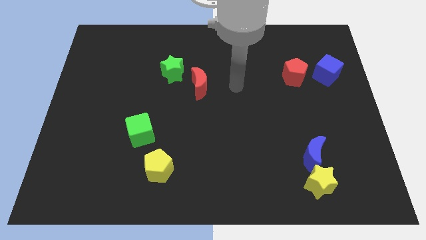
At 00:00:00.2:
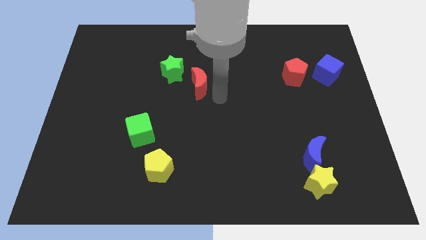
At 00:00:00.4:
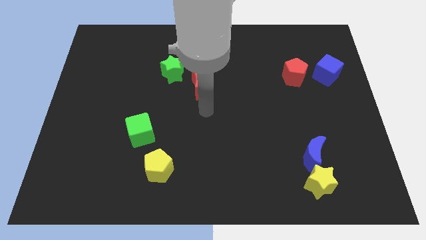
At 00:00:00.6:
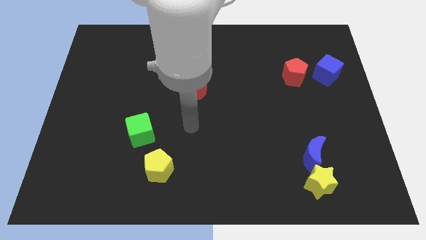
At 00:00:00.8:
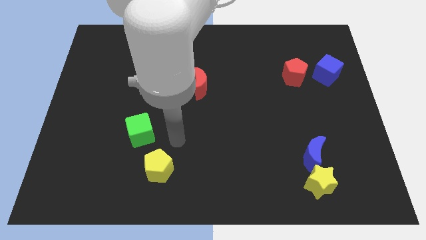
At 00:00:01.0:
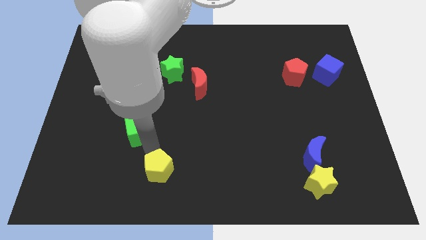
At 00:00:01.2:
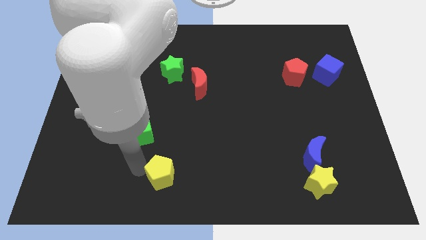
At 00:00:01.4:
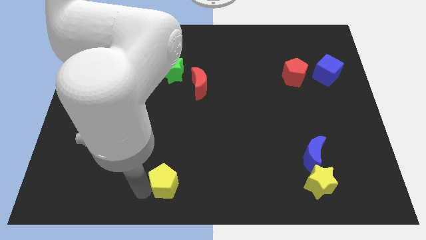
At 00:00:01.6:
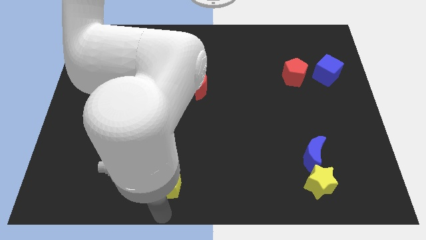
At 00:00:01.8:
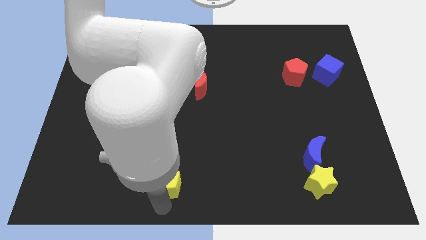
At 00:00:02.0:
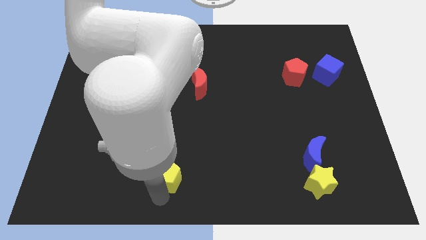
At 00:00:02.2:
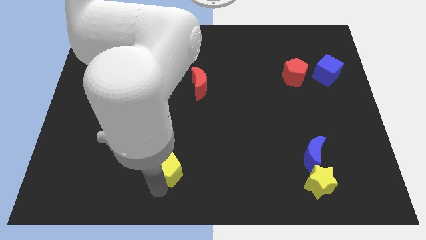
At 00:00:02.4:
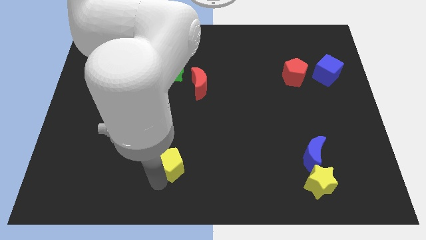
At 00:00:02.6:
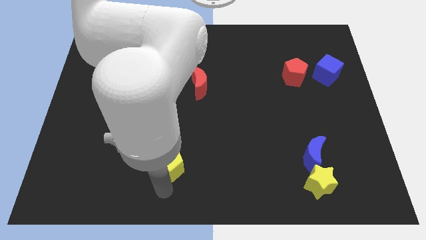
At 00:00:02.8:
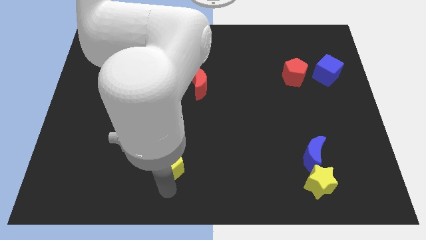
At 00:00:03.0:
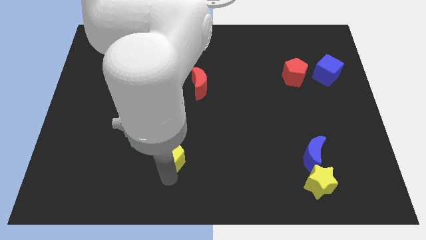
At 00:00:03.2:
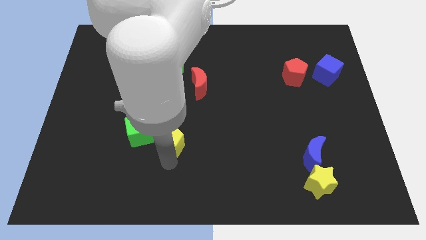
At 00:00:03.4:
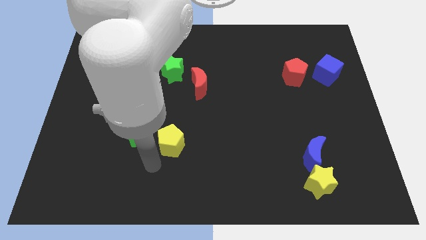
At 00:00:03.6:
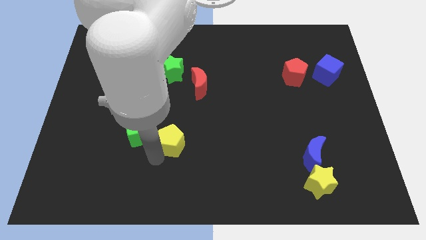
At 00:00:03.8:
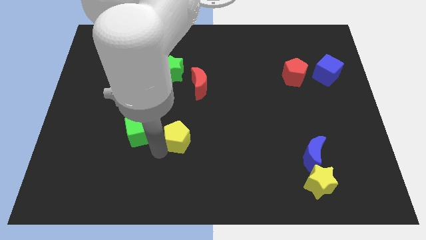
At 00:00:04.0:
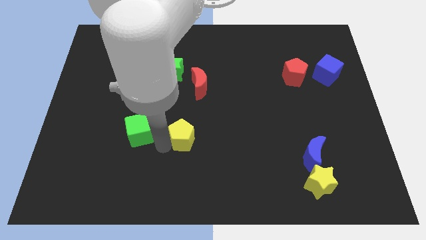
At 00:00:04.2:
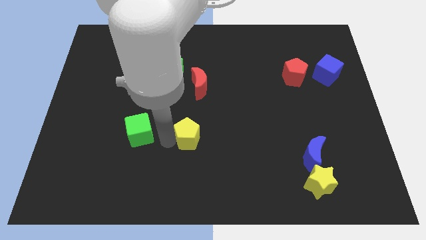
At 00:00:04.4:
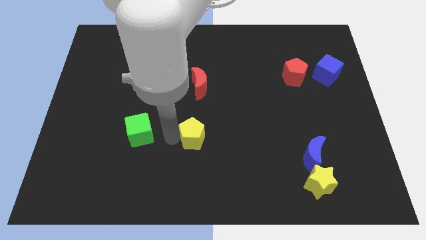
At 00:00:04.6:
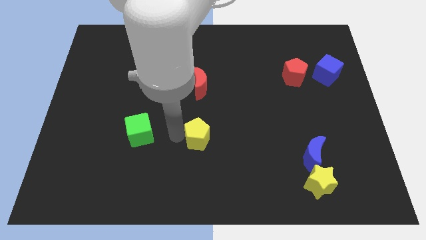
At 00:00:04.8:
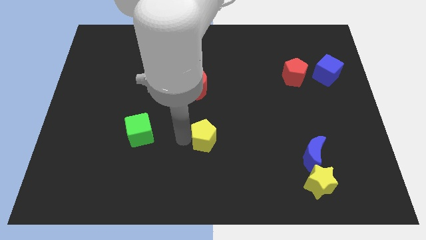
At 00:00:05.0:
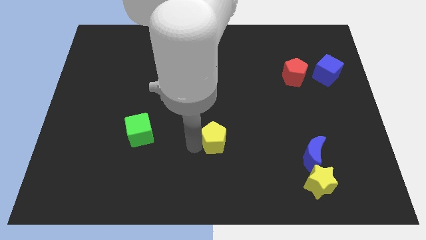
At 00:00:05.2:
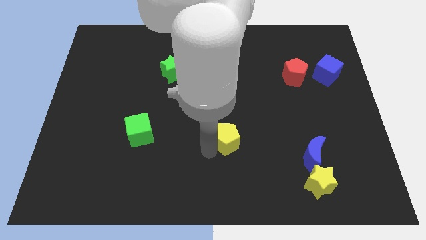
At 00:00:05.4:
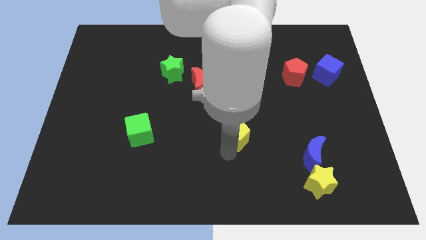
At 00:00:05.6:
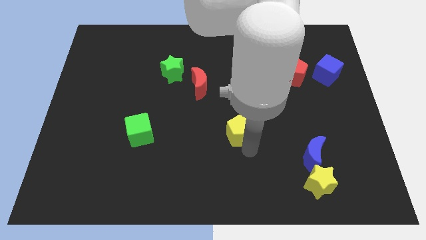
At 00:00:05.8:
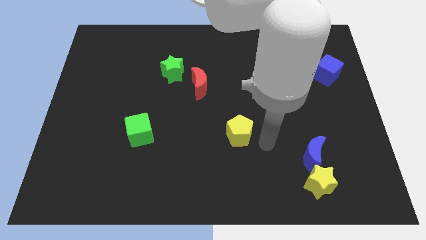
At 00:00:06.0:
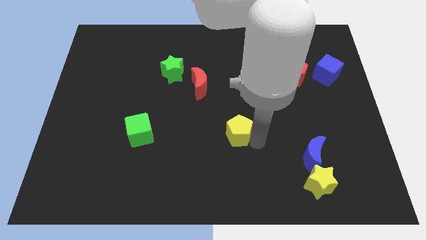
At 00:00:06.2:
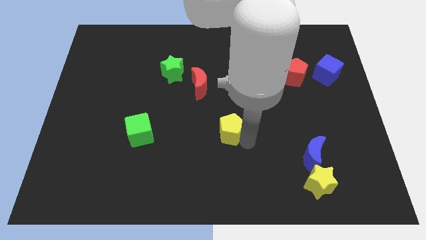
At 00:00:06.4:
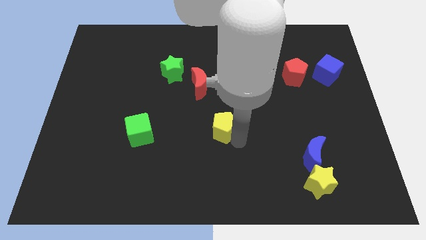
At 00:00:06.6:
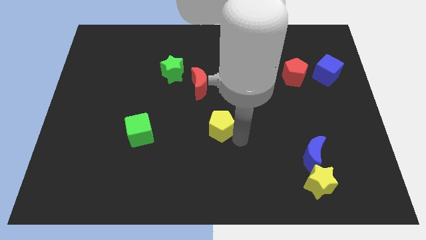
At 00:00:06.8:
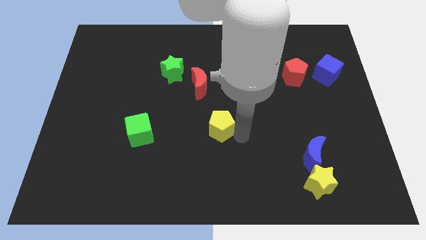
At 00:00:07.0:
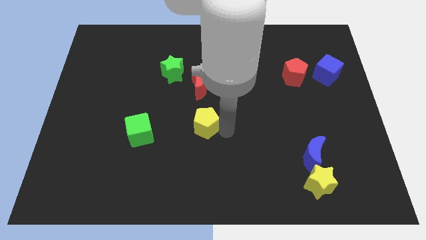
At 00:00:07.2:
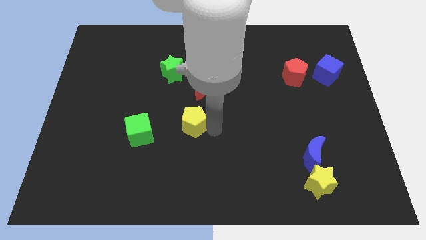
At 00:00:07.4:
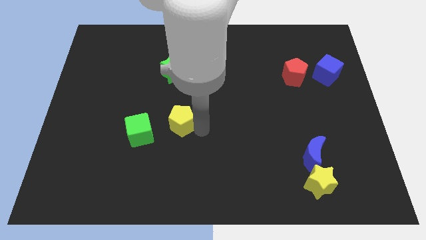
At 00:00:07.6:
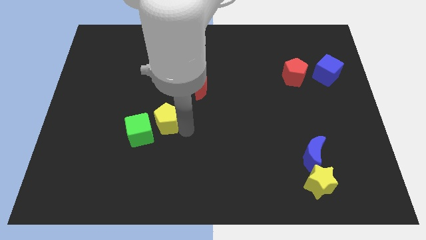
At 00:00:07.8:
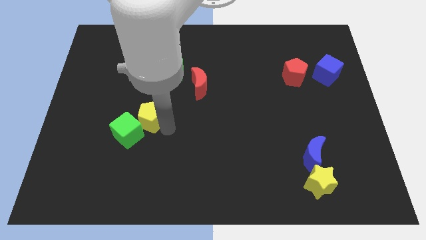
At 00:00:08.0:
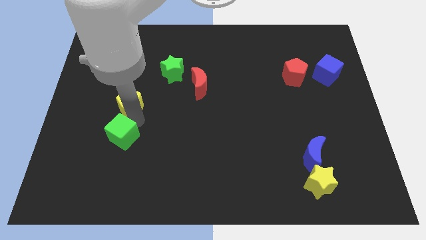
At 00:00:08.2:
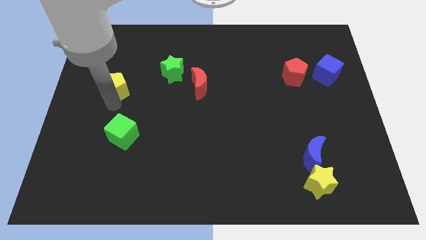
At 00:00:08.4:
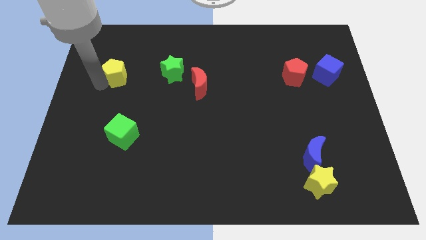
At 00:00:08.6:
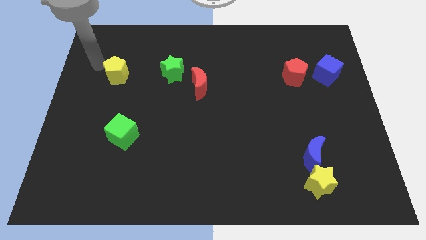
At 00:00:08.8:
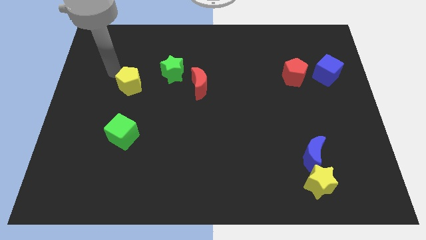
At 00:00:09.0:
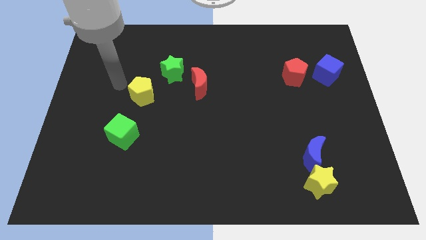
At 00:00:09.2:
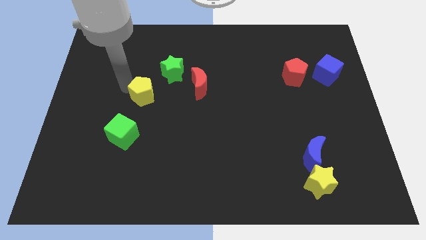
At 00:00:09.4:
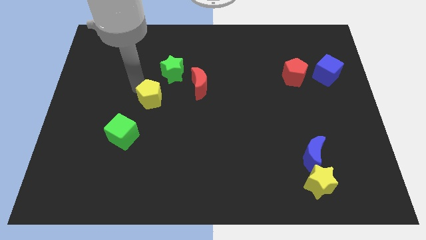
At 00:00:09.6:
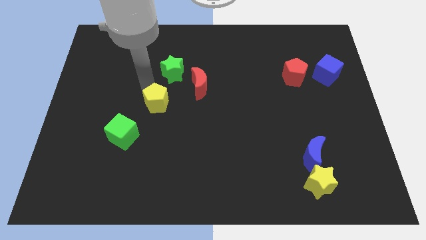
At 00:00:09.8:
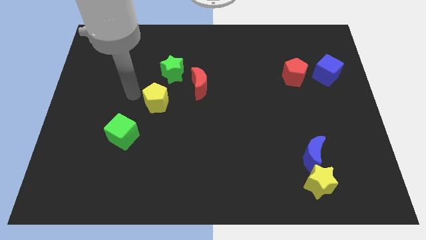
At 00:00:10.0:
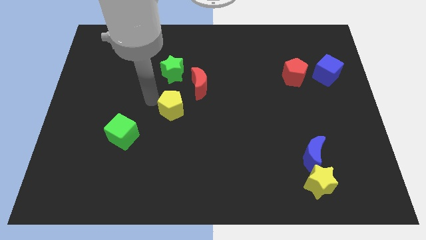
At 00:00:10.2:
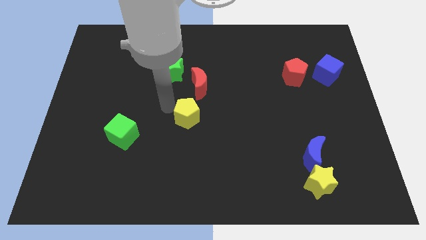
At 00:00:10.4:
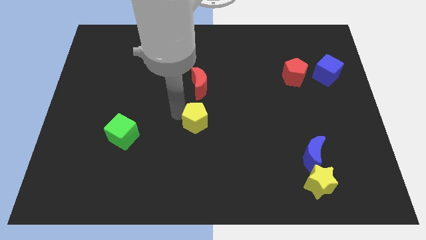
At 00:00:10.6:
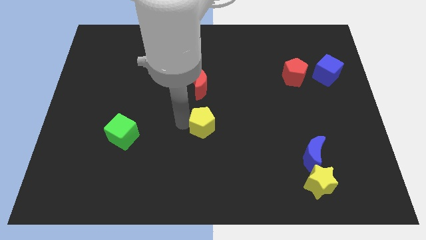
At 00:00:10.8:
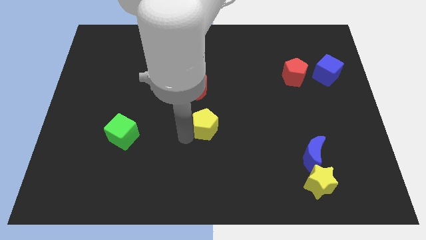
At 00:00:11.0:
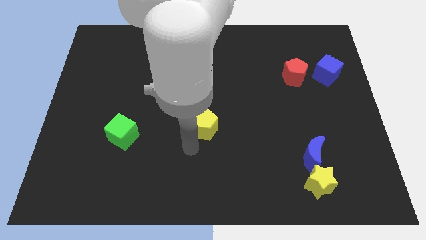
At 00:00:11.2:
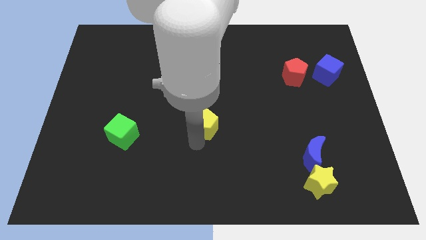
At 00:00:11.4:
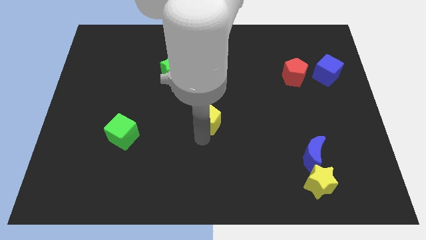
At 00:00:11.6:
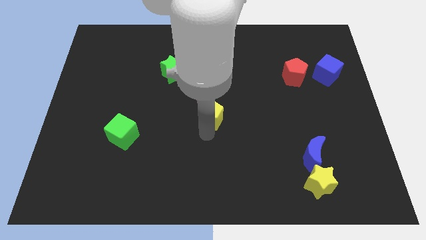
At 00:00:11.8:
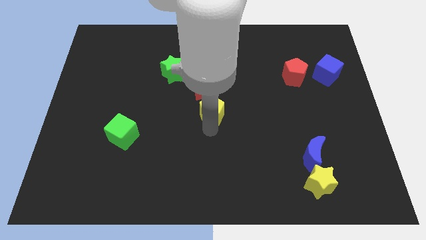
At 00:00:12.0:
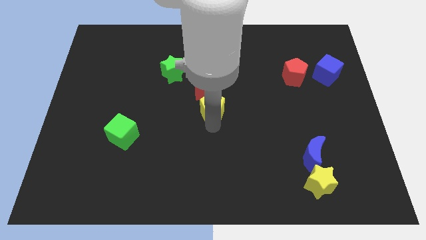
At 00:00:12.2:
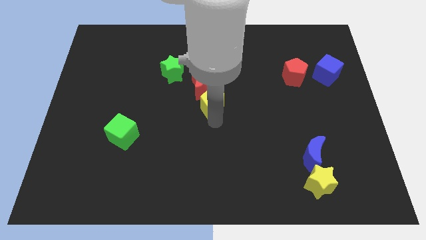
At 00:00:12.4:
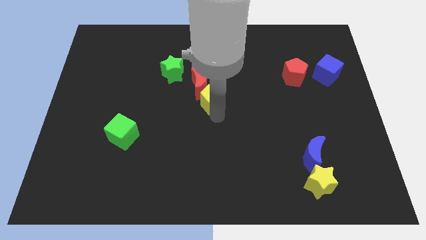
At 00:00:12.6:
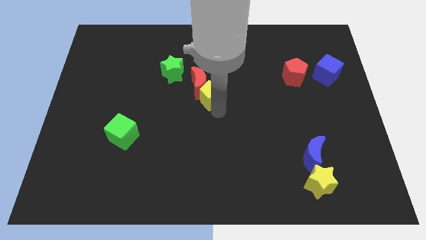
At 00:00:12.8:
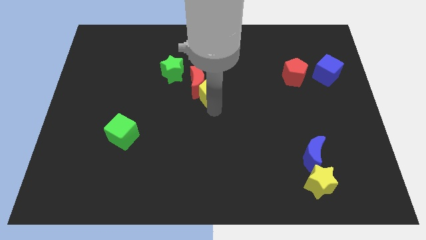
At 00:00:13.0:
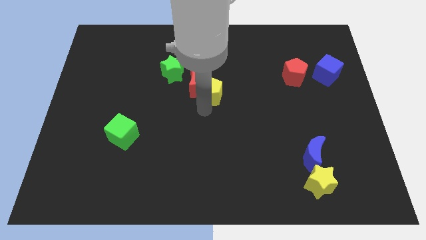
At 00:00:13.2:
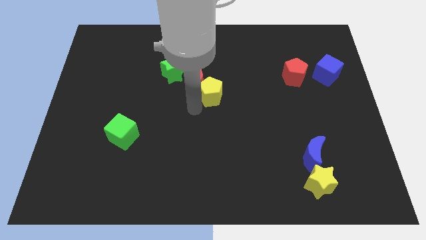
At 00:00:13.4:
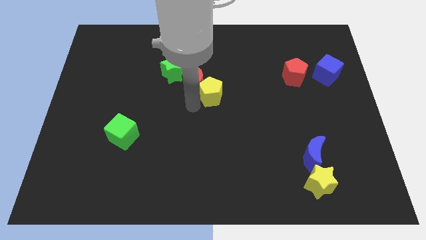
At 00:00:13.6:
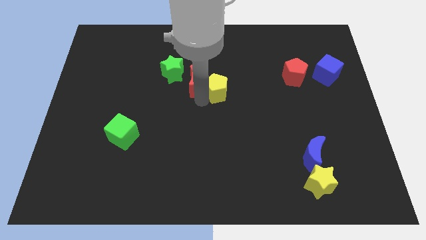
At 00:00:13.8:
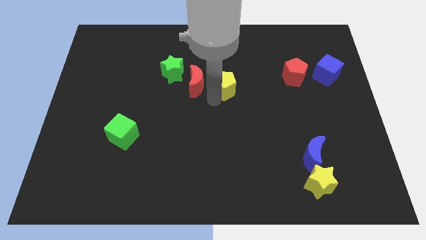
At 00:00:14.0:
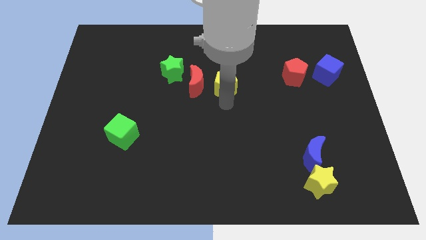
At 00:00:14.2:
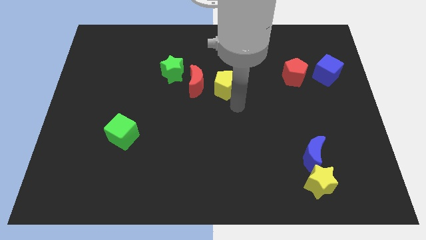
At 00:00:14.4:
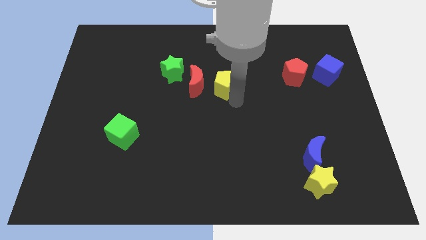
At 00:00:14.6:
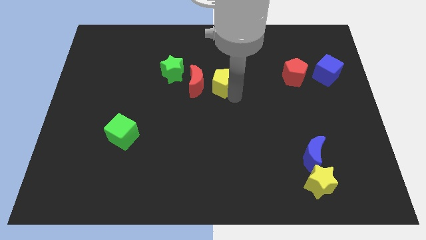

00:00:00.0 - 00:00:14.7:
push the yellow pentagon just right of the green star
